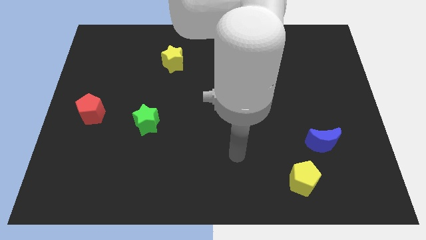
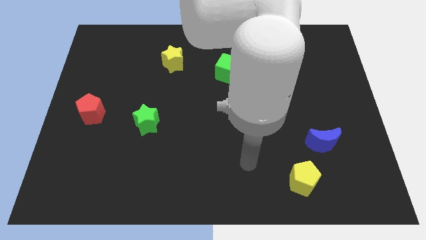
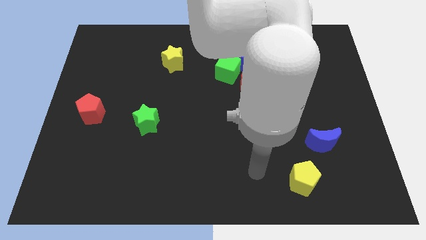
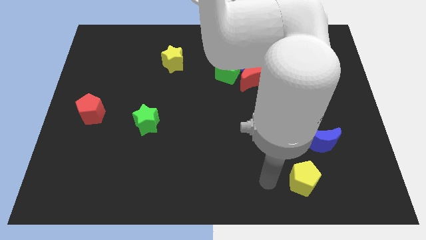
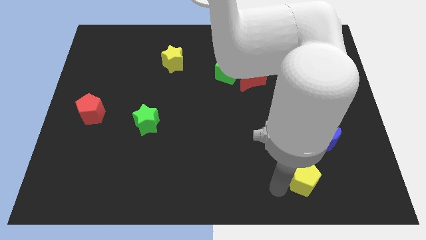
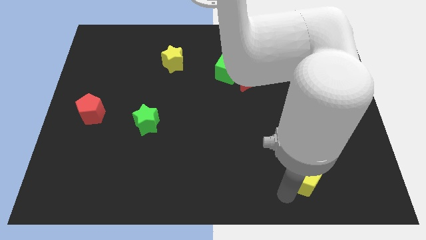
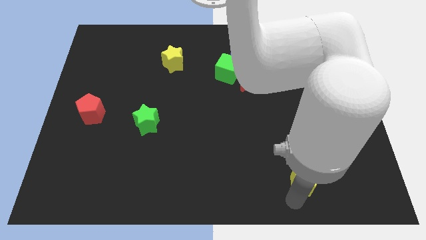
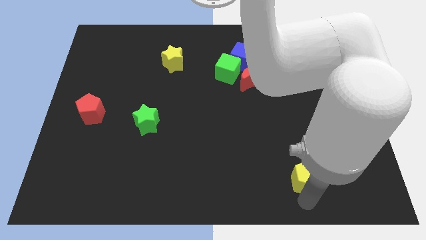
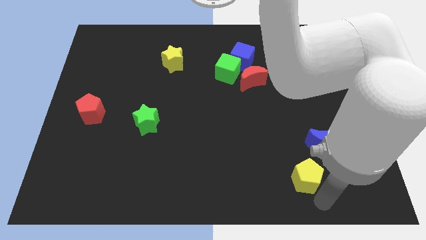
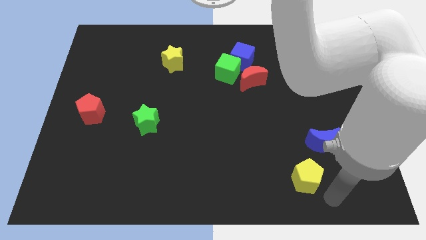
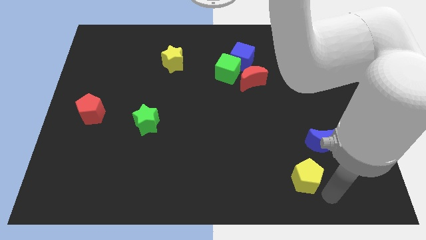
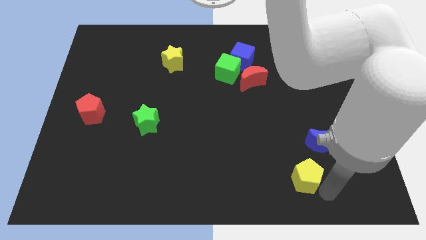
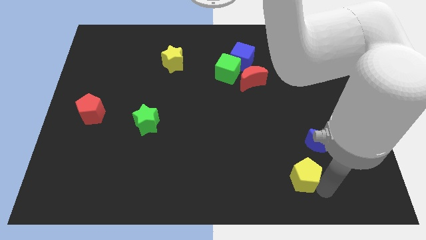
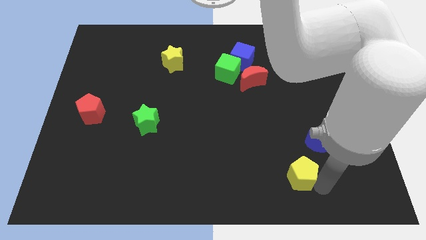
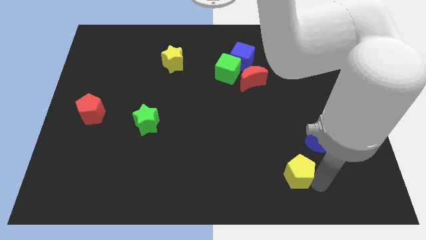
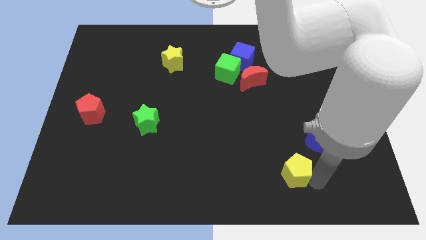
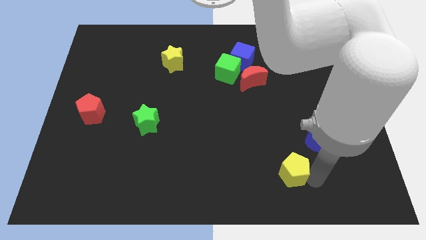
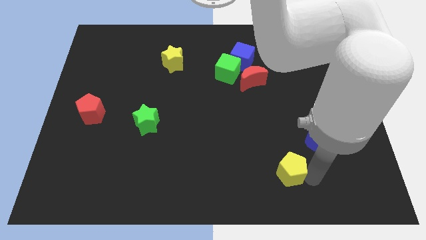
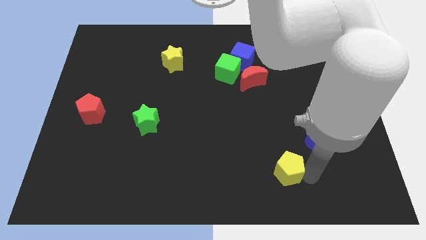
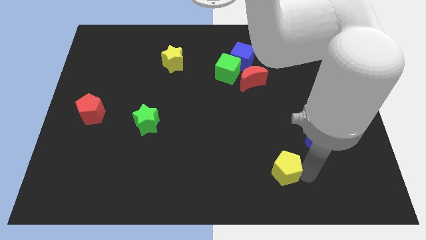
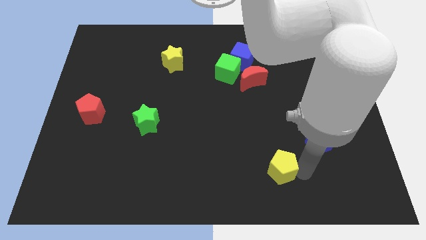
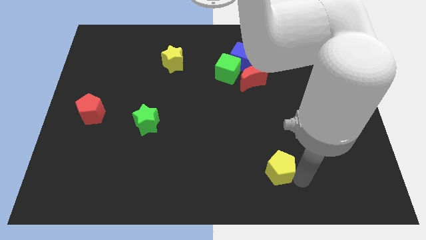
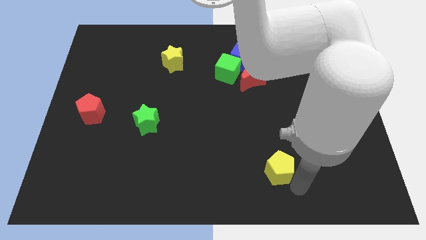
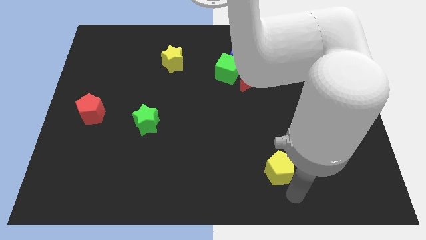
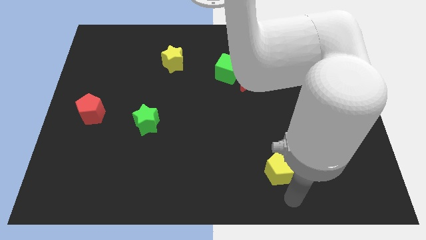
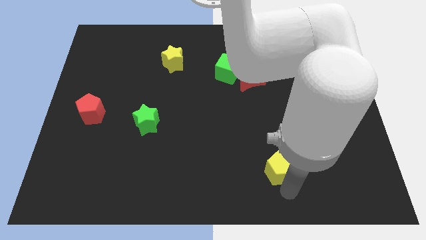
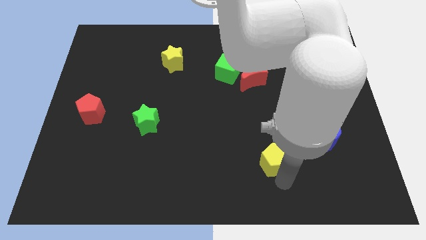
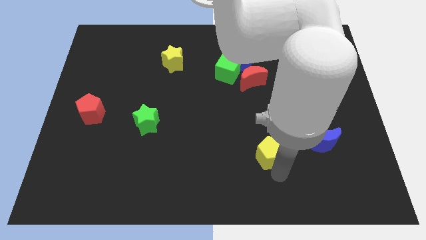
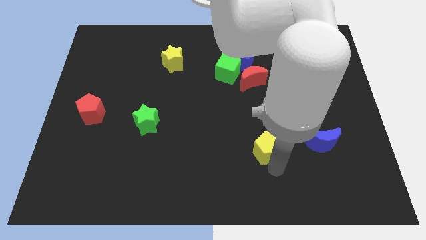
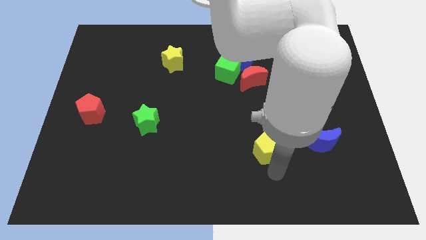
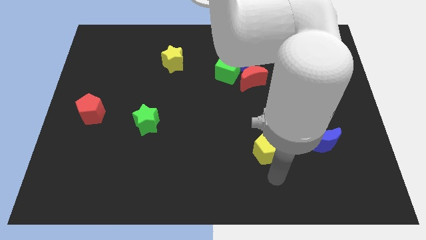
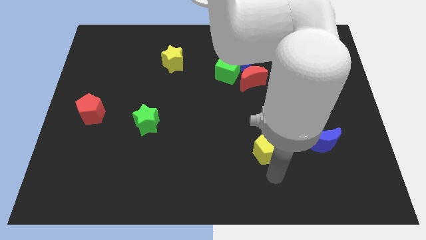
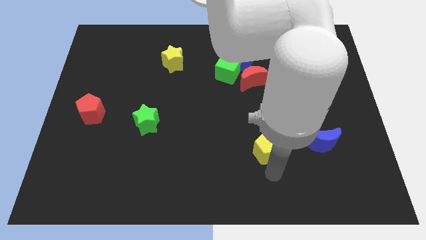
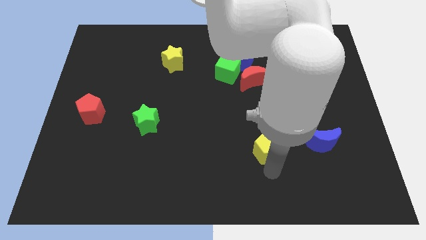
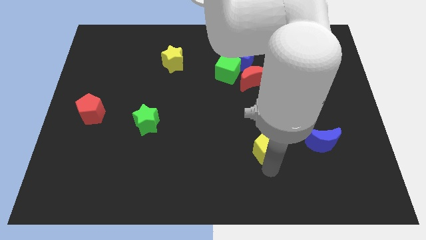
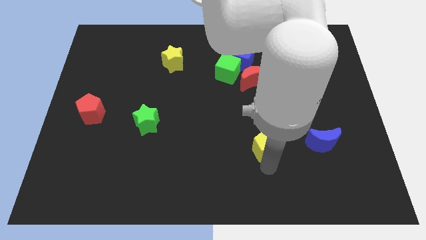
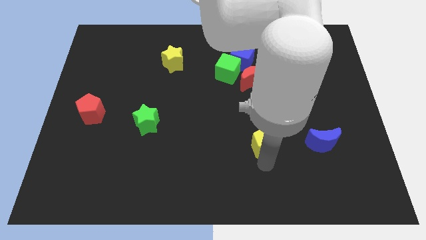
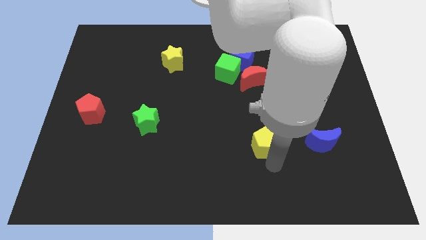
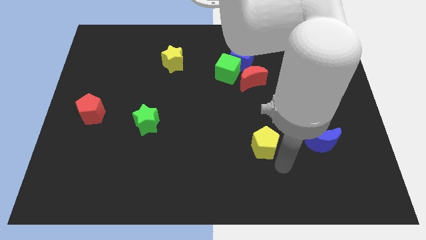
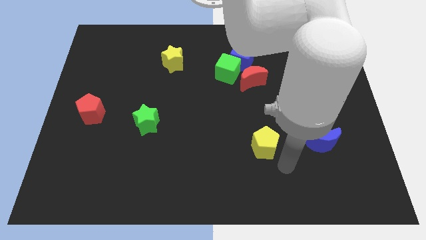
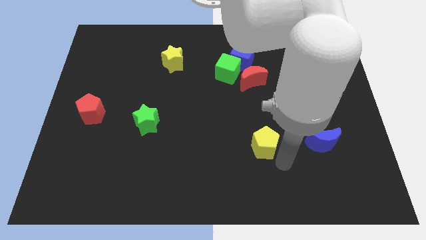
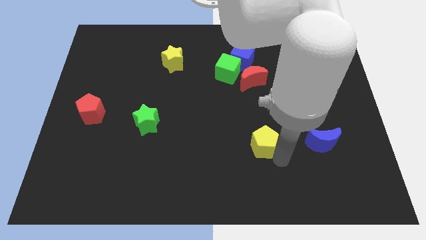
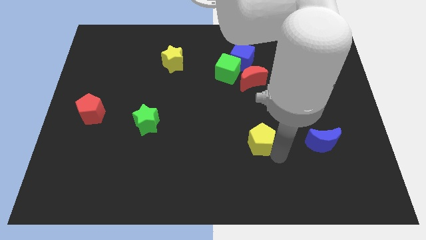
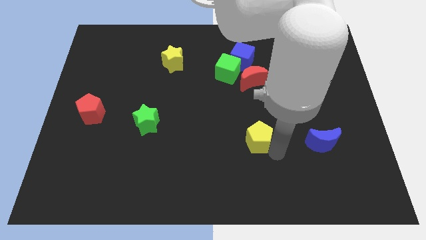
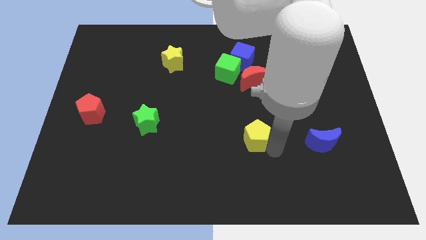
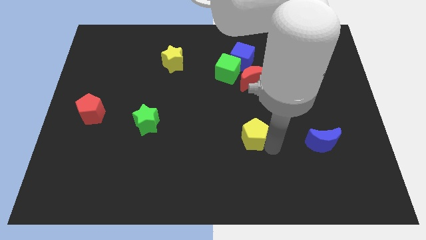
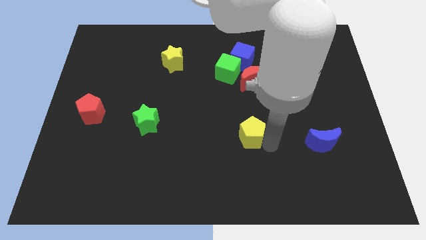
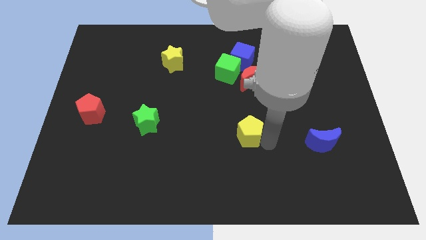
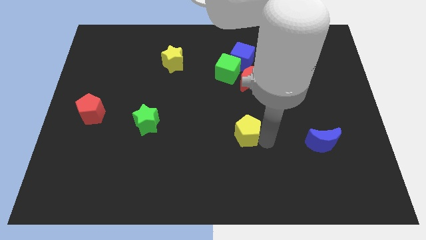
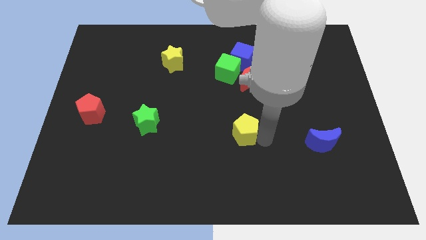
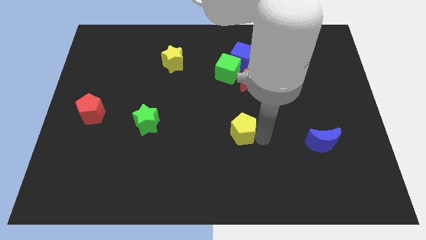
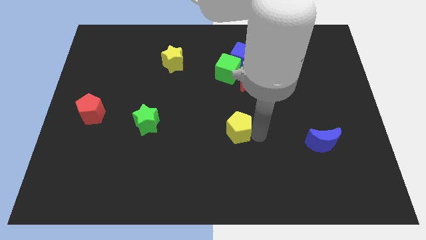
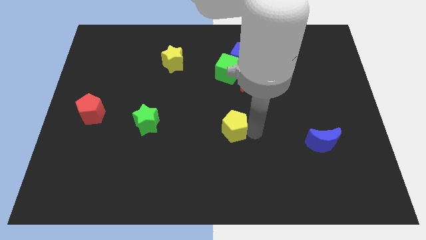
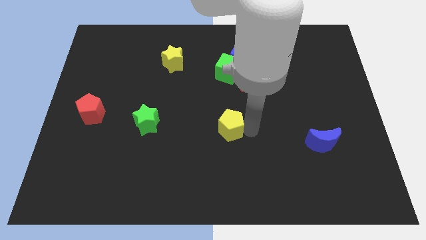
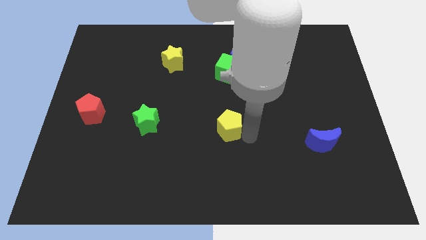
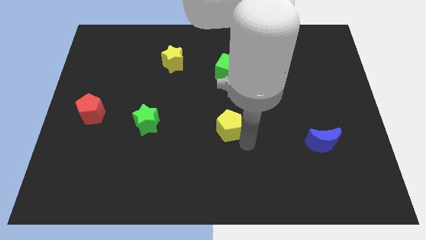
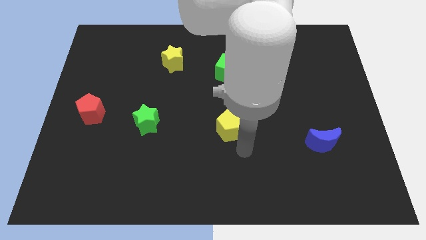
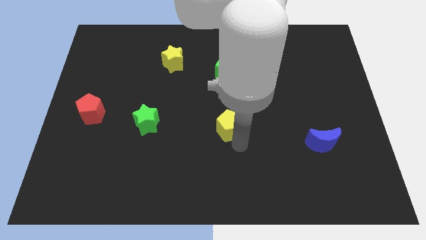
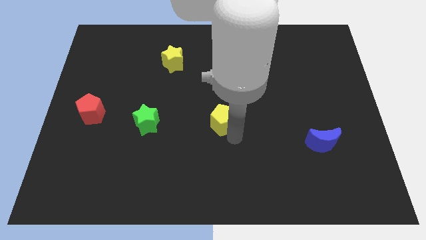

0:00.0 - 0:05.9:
slide the yellow pentagon up and left

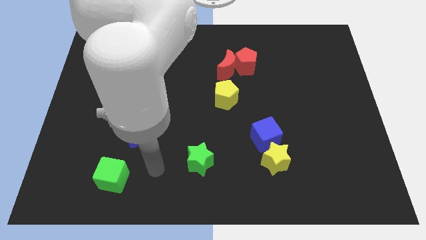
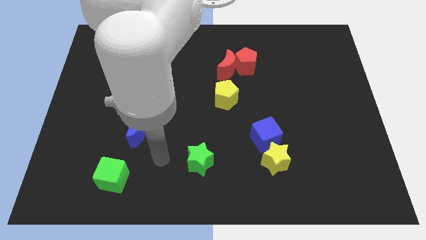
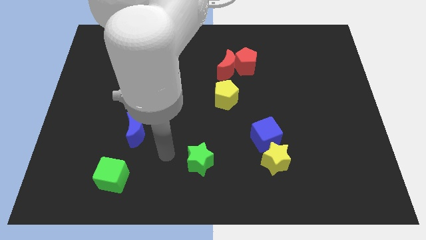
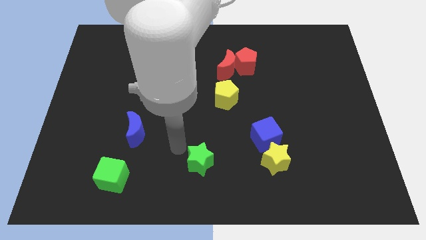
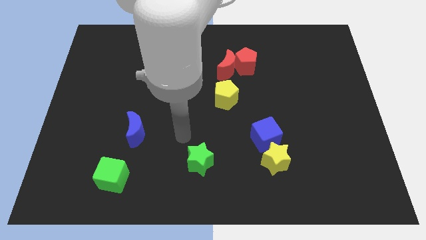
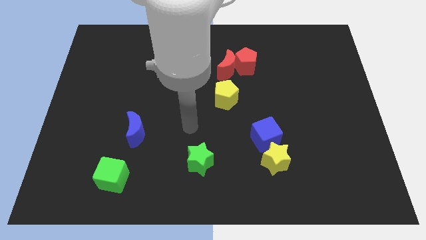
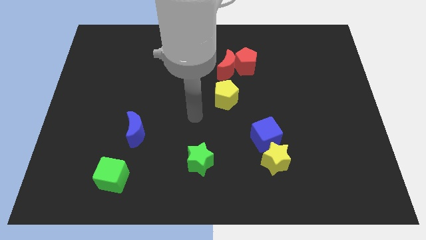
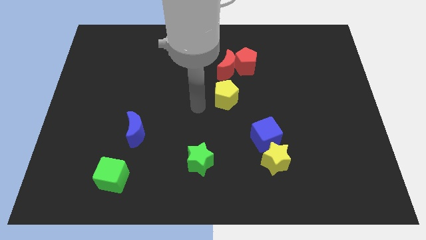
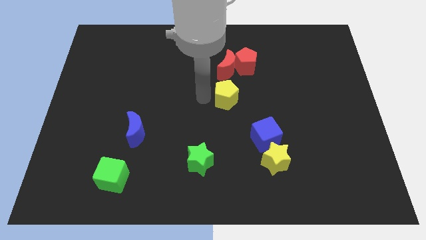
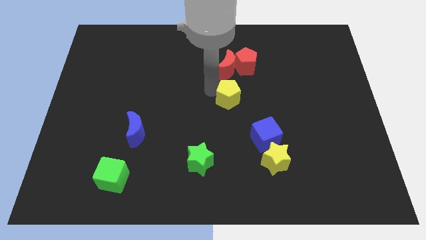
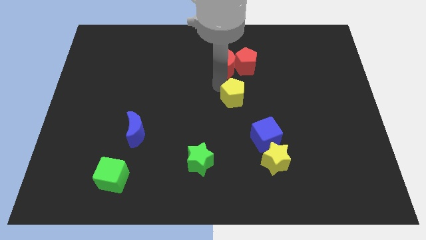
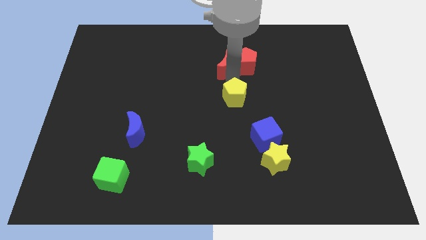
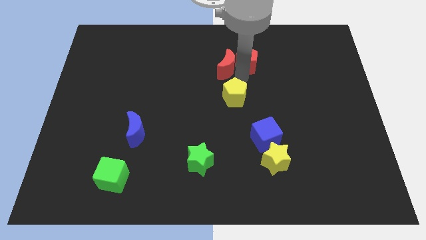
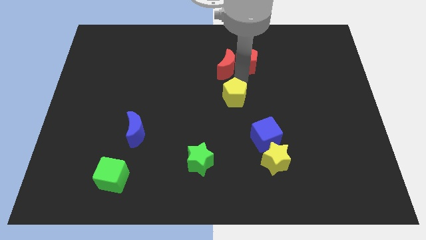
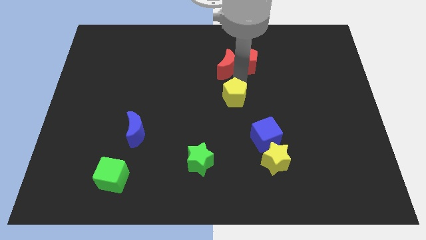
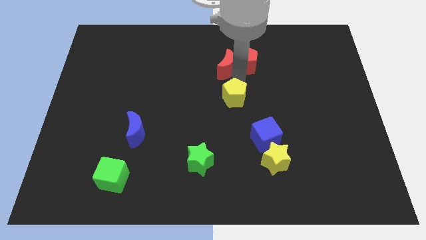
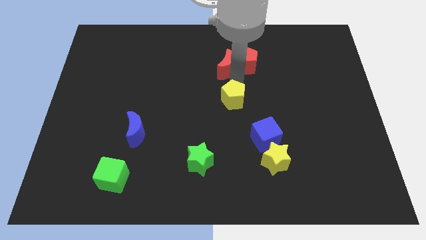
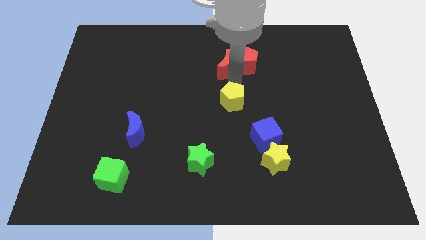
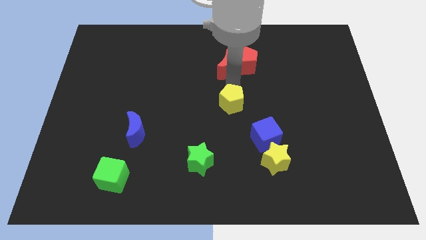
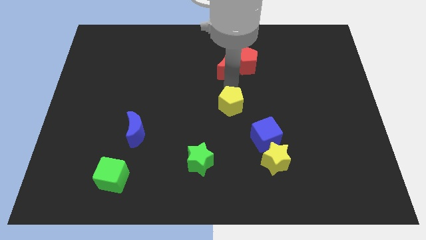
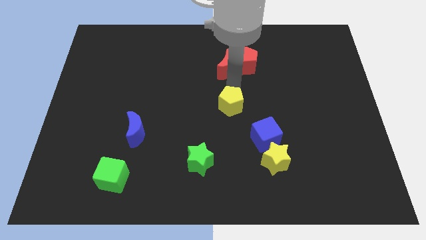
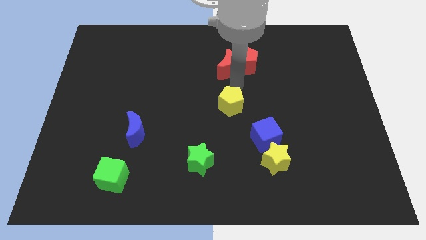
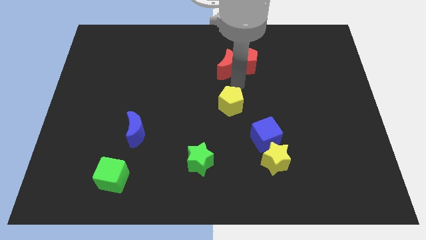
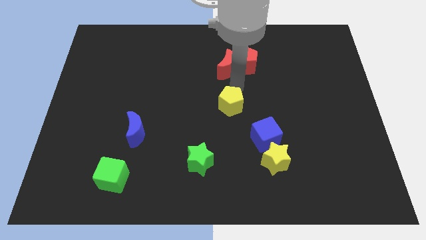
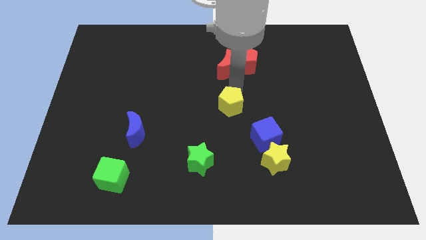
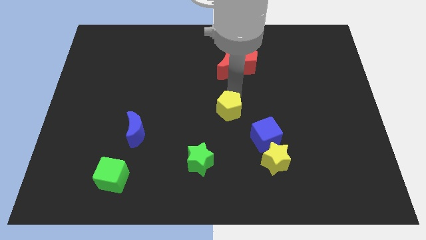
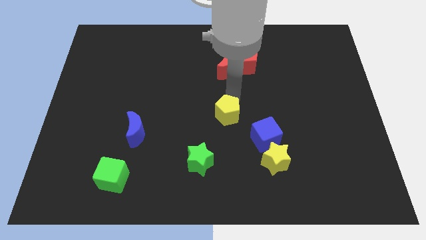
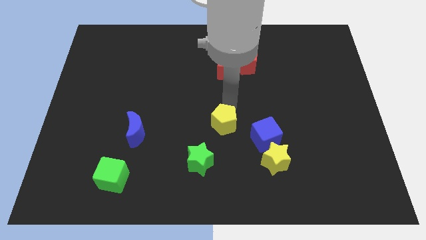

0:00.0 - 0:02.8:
push the yellow pentagon a little bit down

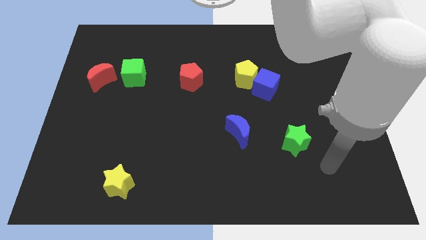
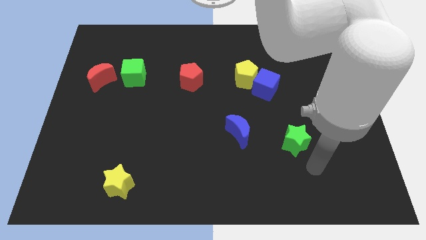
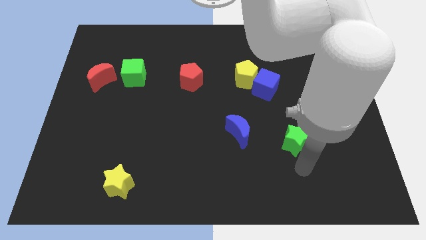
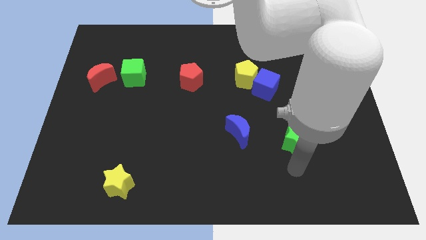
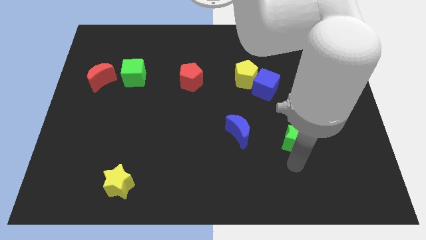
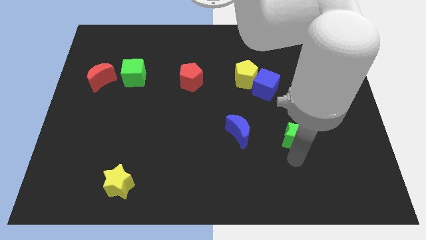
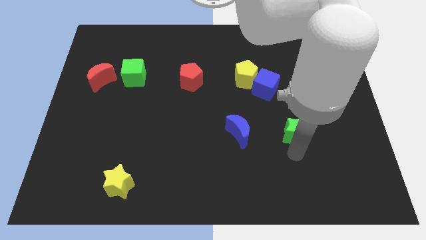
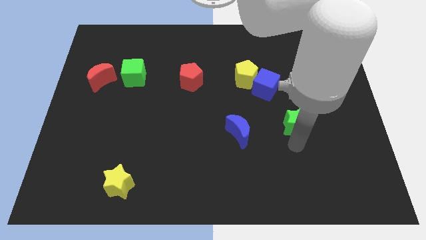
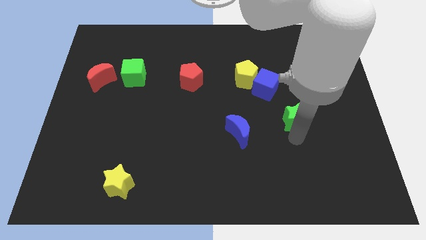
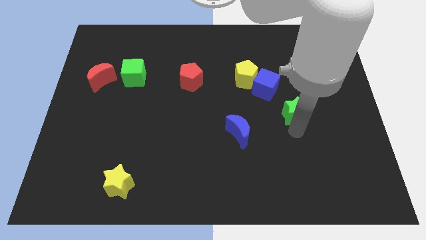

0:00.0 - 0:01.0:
move the green star slightly upwards
